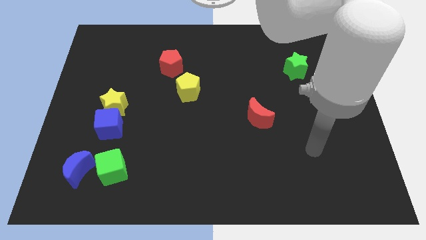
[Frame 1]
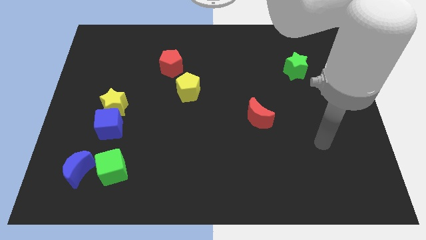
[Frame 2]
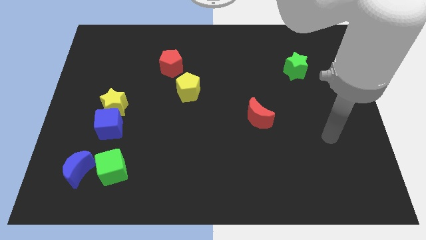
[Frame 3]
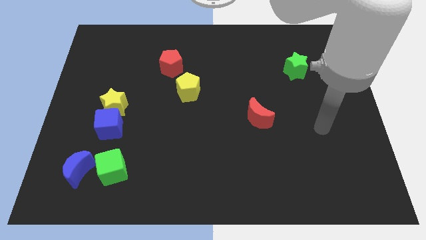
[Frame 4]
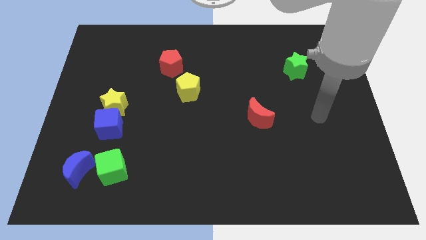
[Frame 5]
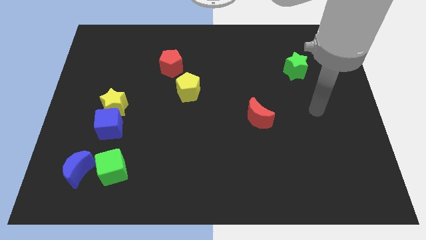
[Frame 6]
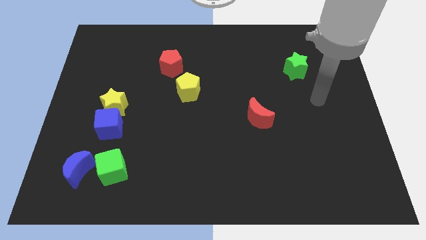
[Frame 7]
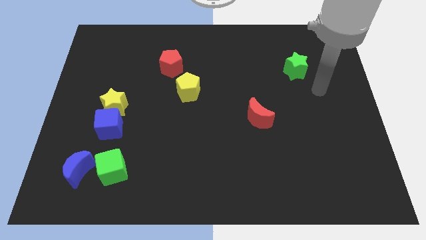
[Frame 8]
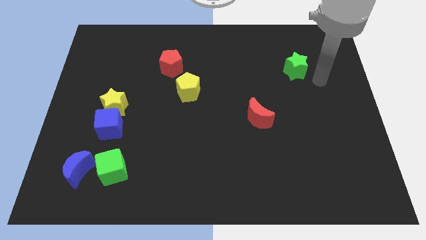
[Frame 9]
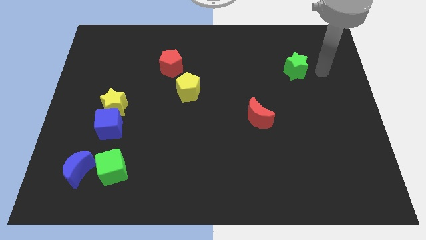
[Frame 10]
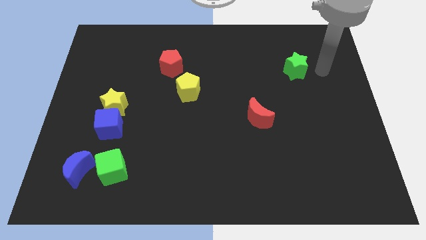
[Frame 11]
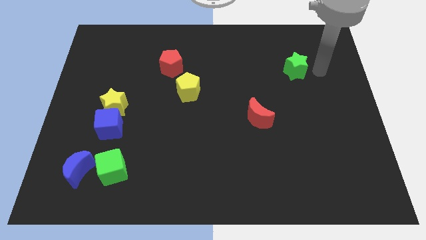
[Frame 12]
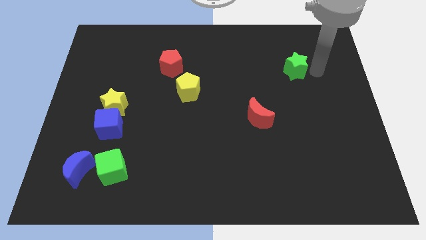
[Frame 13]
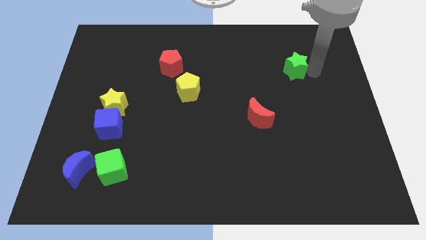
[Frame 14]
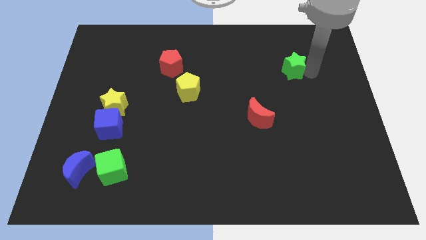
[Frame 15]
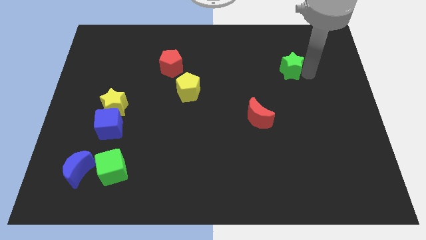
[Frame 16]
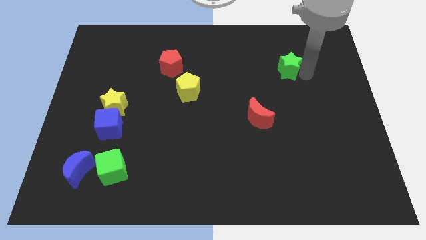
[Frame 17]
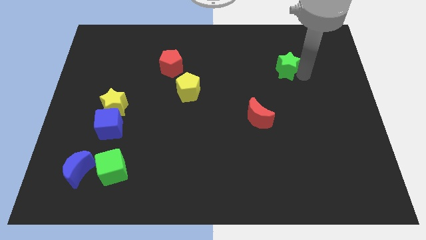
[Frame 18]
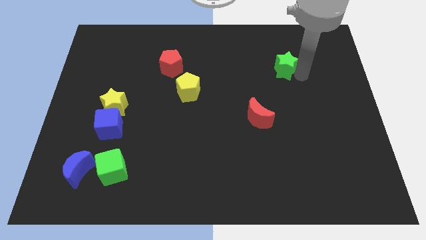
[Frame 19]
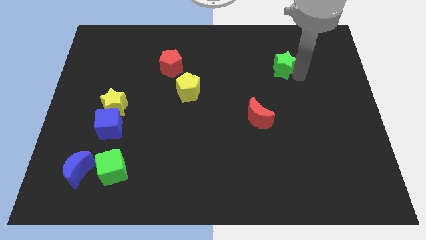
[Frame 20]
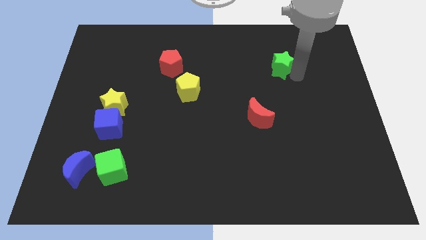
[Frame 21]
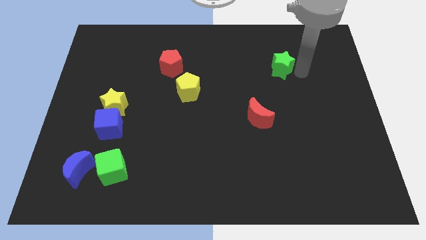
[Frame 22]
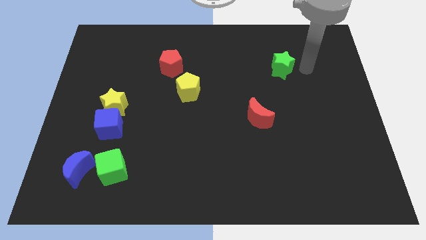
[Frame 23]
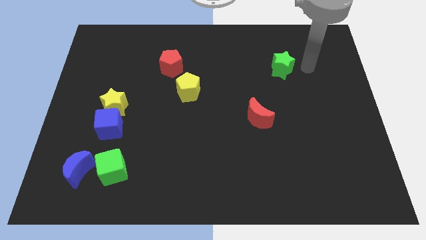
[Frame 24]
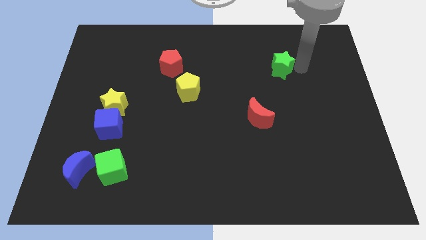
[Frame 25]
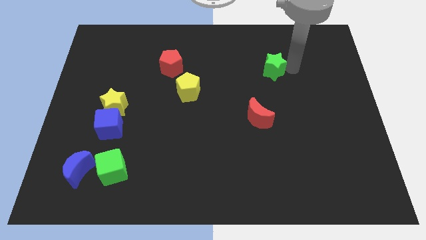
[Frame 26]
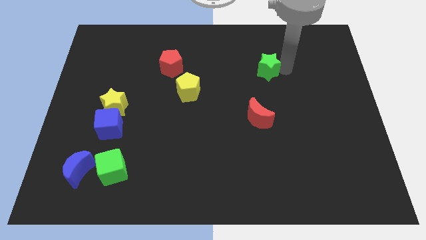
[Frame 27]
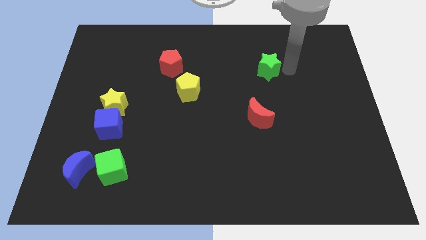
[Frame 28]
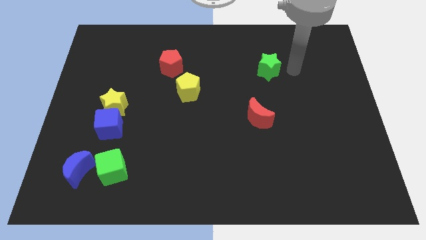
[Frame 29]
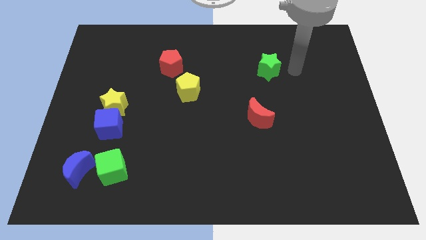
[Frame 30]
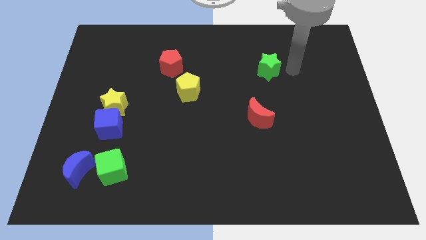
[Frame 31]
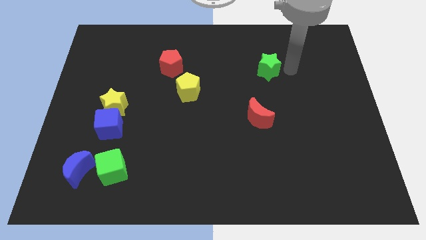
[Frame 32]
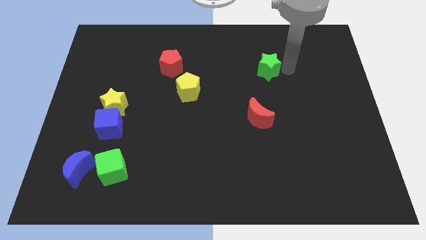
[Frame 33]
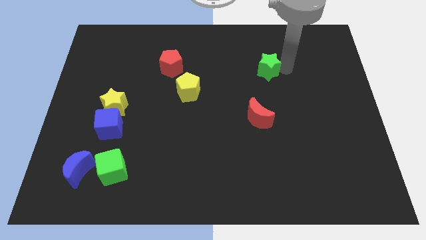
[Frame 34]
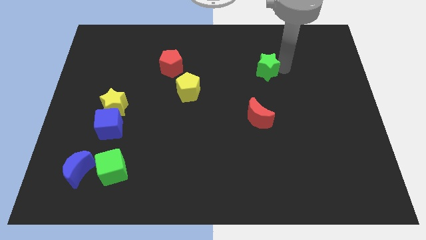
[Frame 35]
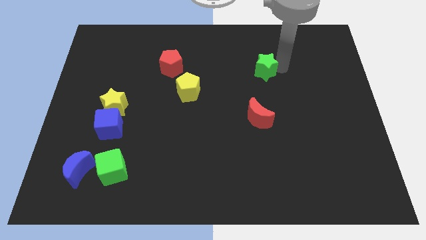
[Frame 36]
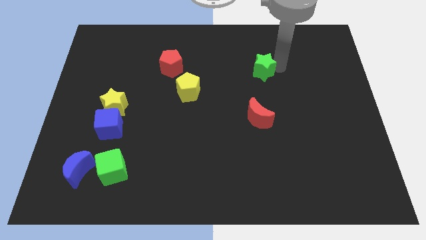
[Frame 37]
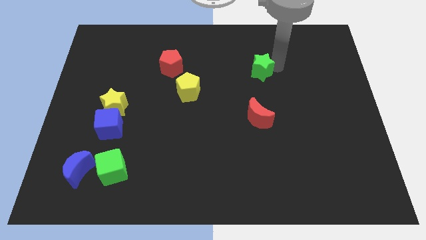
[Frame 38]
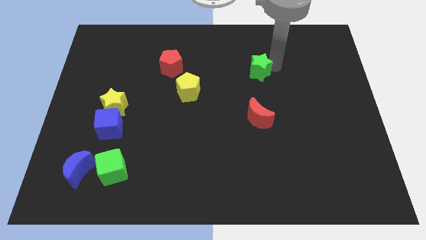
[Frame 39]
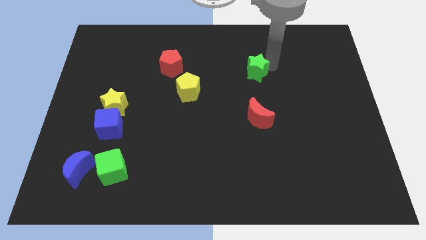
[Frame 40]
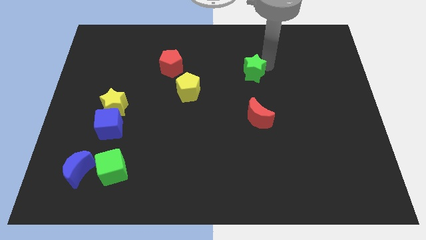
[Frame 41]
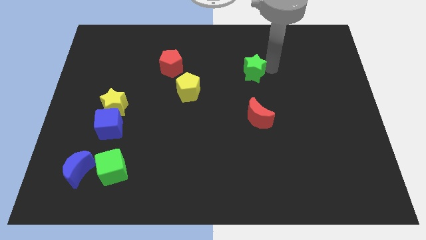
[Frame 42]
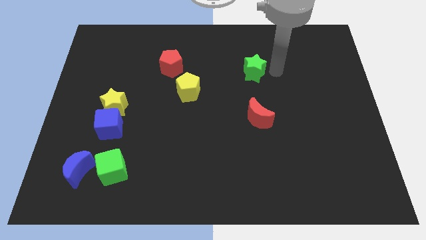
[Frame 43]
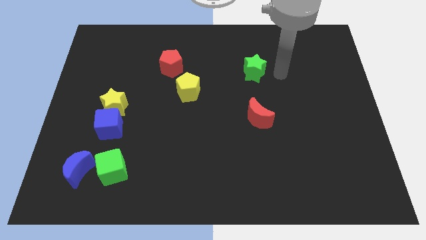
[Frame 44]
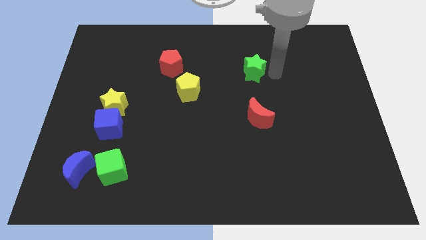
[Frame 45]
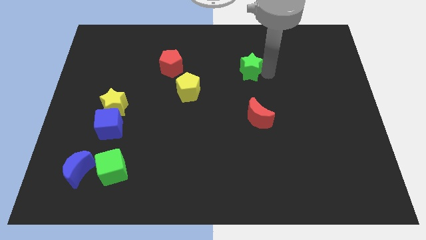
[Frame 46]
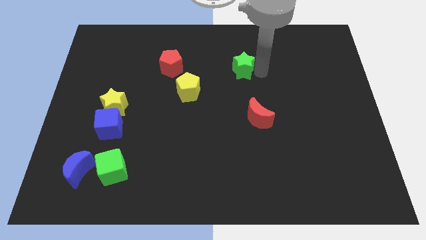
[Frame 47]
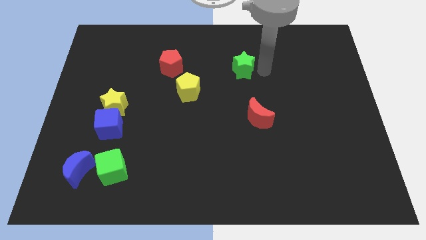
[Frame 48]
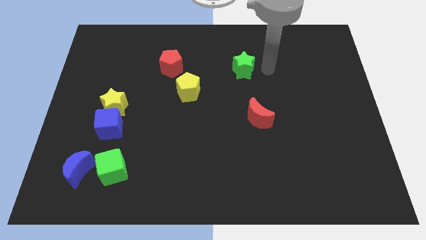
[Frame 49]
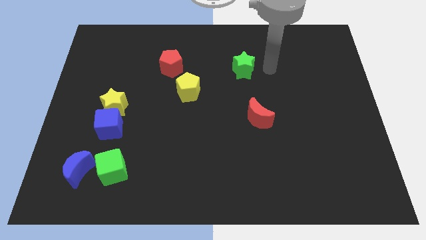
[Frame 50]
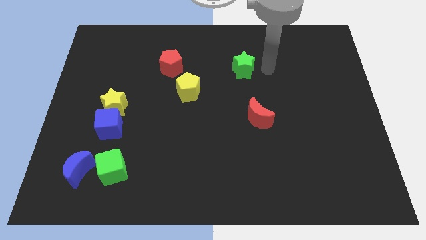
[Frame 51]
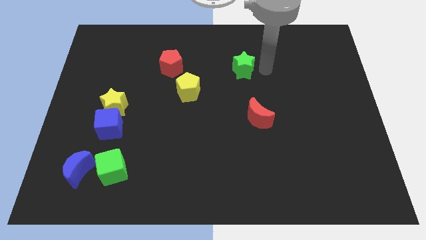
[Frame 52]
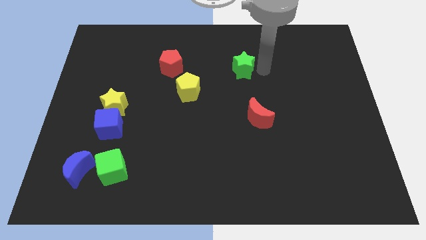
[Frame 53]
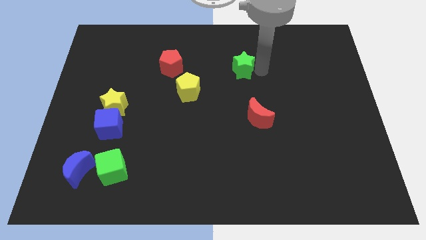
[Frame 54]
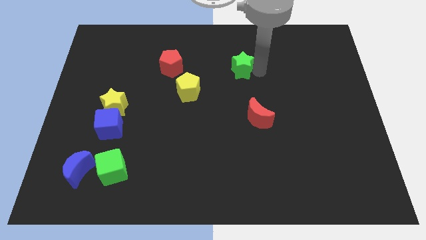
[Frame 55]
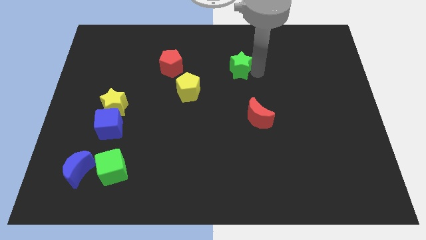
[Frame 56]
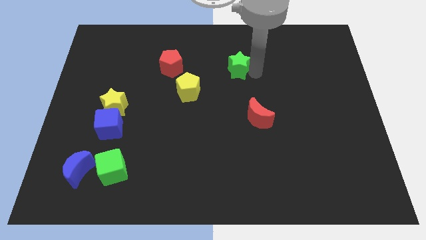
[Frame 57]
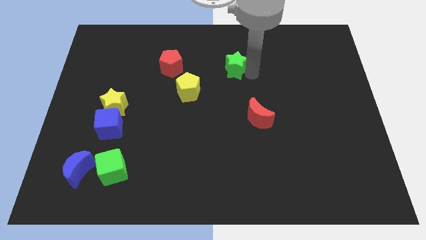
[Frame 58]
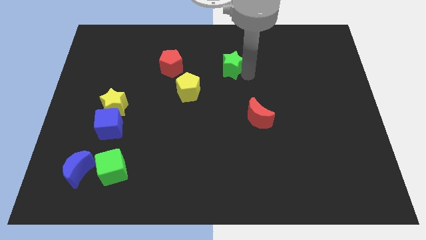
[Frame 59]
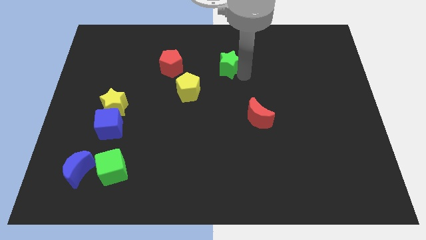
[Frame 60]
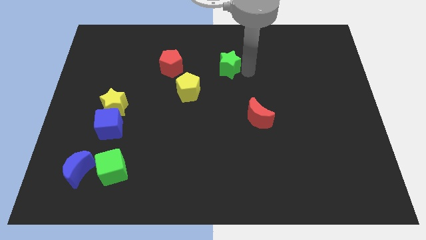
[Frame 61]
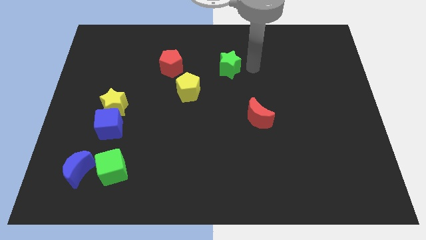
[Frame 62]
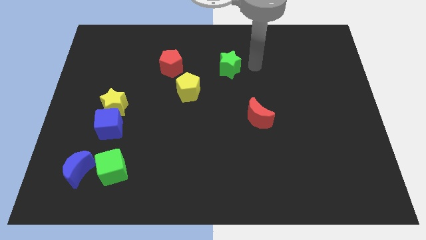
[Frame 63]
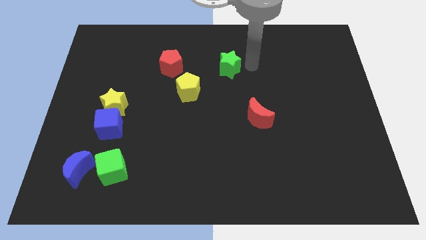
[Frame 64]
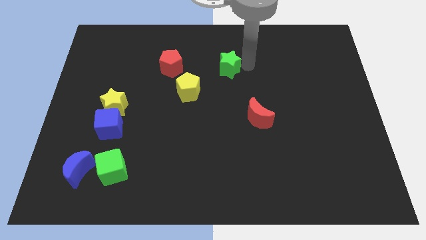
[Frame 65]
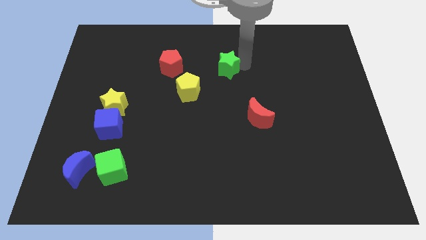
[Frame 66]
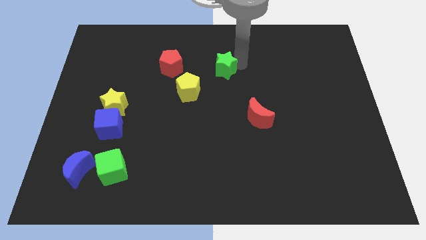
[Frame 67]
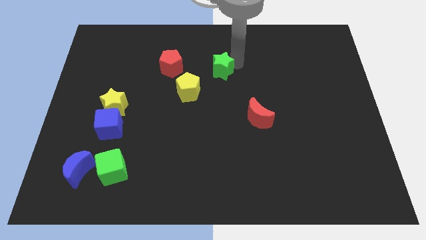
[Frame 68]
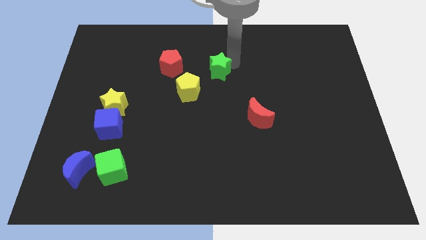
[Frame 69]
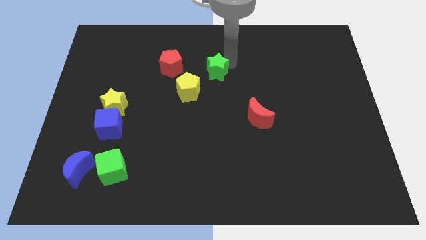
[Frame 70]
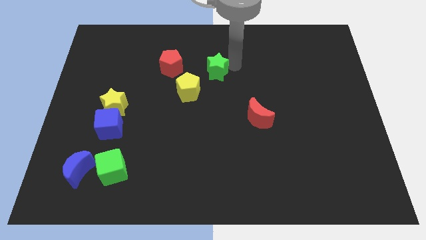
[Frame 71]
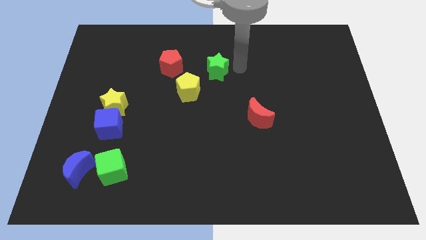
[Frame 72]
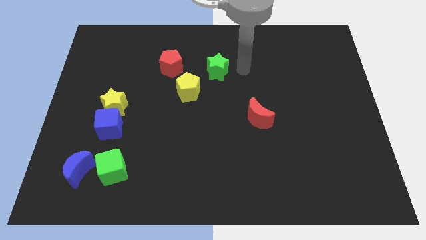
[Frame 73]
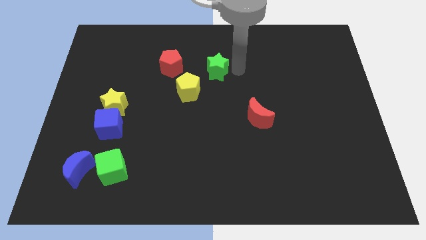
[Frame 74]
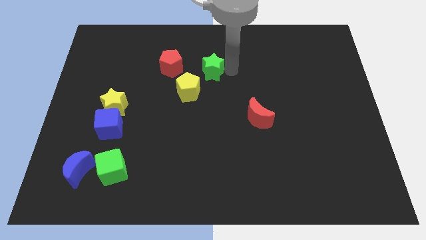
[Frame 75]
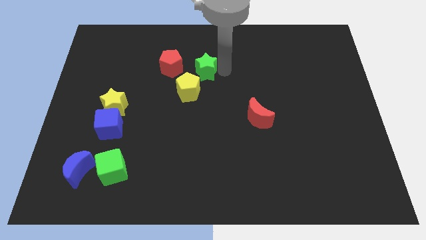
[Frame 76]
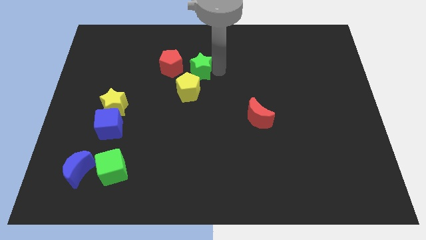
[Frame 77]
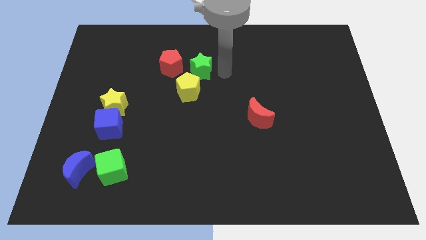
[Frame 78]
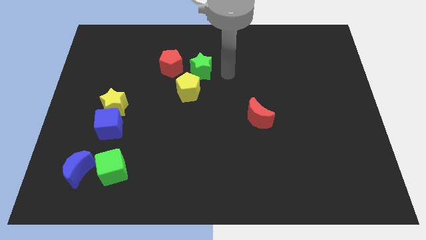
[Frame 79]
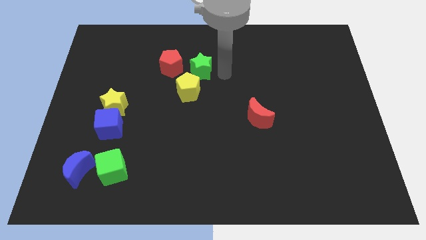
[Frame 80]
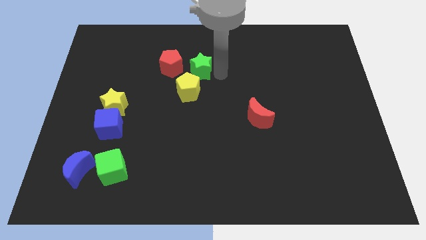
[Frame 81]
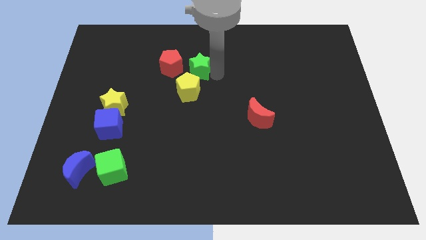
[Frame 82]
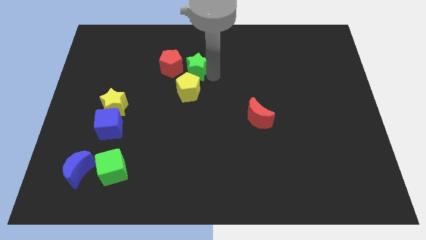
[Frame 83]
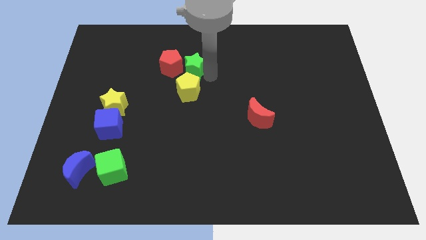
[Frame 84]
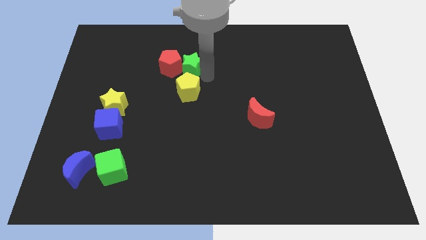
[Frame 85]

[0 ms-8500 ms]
push the green star to the red pentagon
